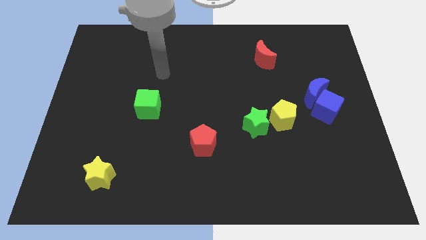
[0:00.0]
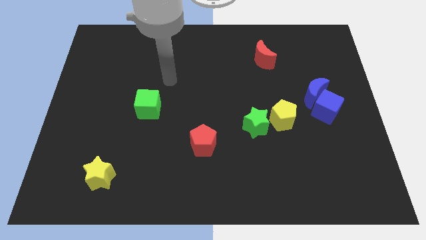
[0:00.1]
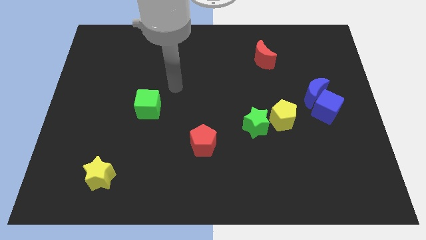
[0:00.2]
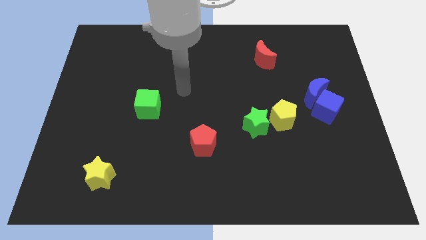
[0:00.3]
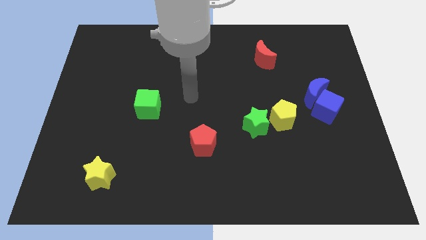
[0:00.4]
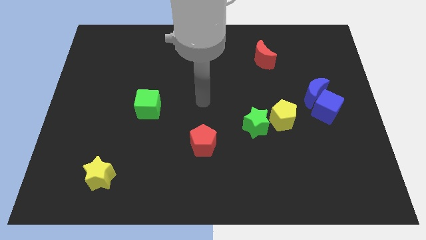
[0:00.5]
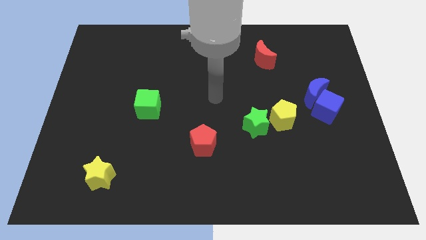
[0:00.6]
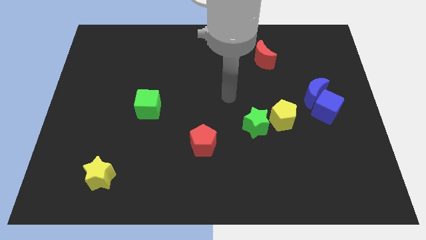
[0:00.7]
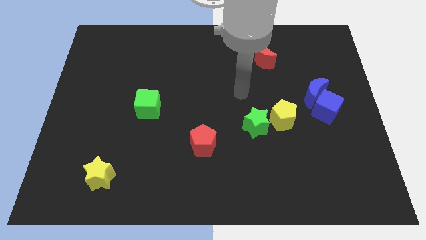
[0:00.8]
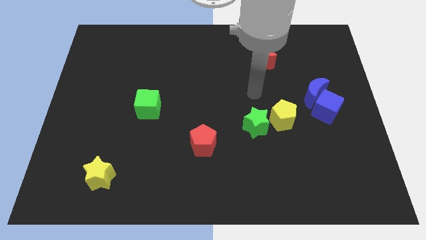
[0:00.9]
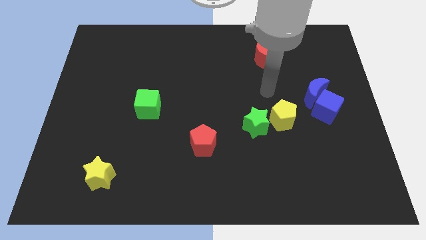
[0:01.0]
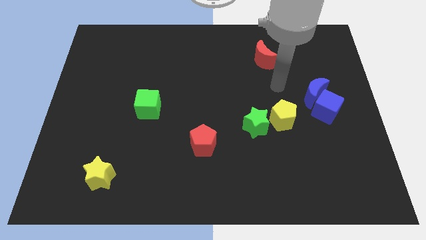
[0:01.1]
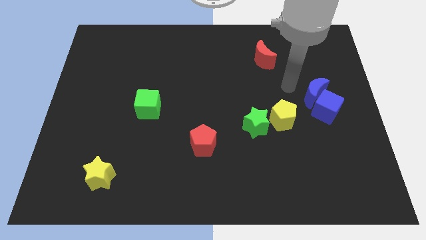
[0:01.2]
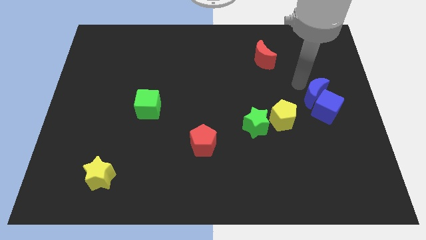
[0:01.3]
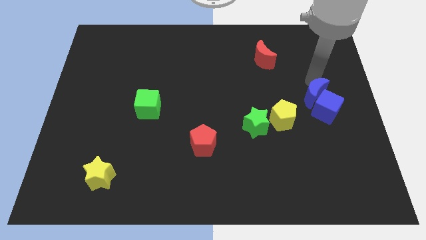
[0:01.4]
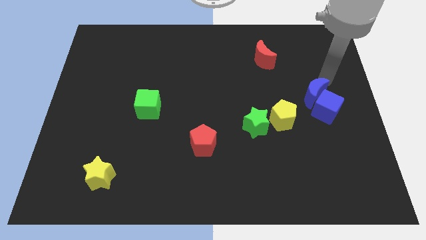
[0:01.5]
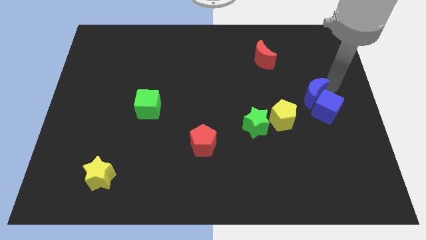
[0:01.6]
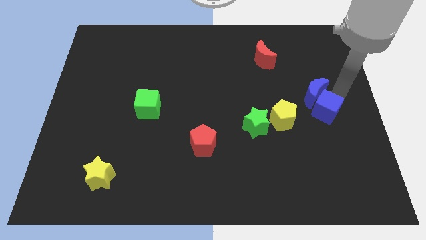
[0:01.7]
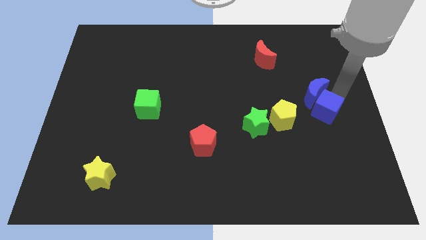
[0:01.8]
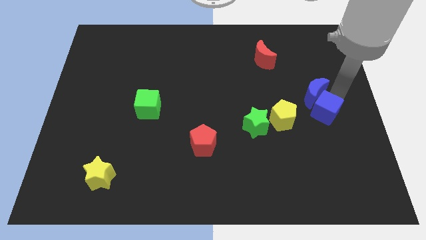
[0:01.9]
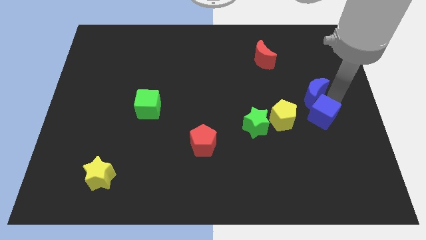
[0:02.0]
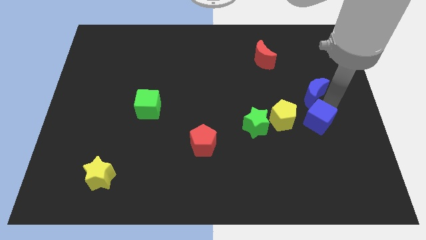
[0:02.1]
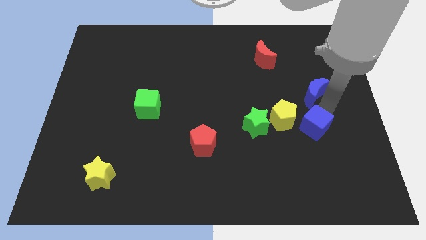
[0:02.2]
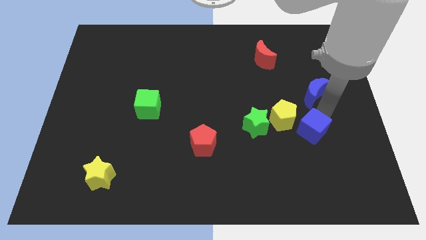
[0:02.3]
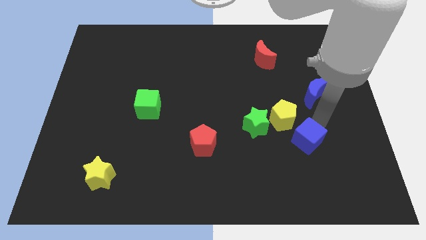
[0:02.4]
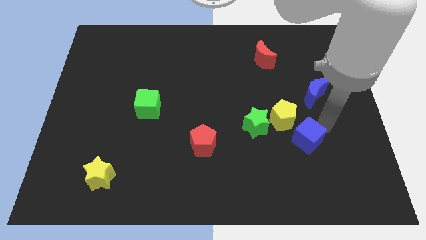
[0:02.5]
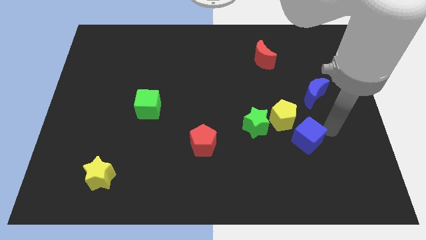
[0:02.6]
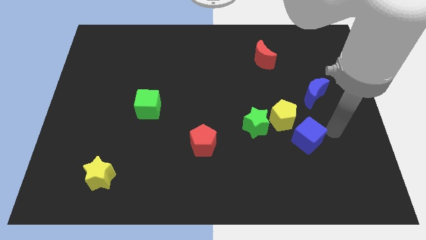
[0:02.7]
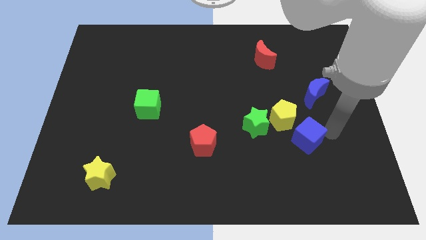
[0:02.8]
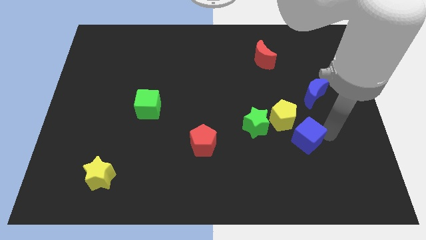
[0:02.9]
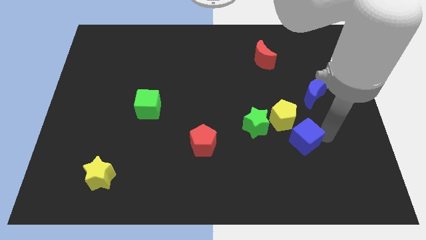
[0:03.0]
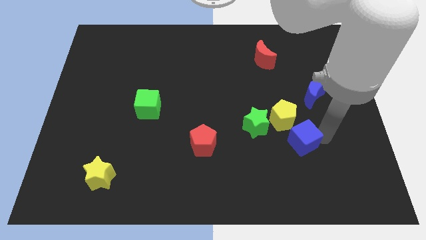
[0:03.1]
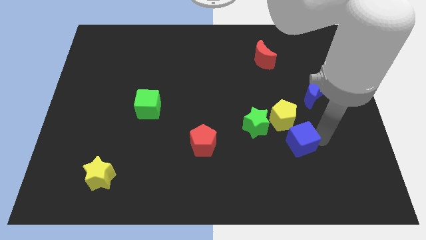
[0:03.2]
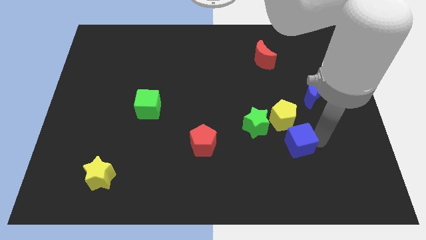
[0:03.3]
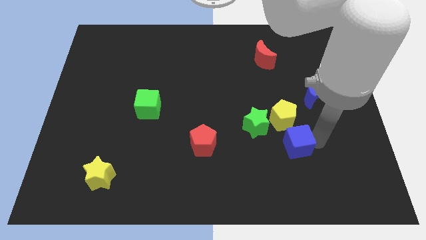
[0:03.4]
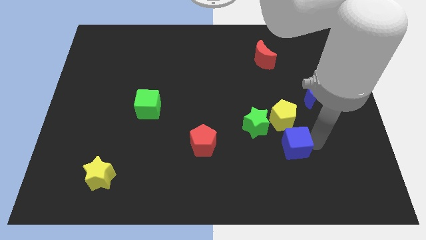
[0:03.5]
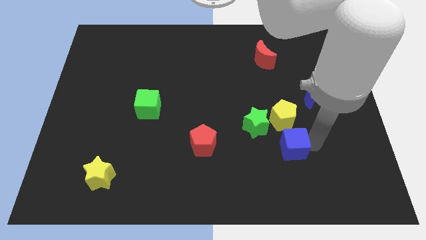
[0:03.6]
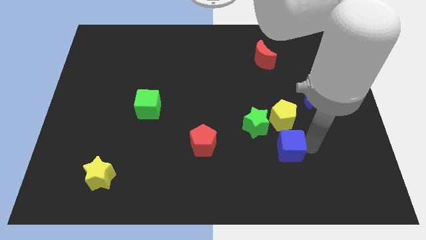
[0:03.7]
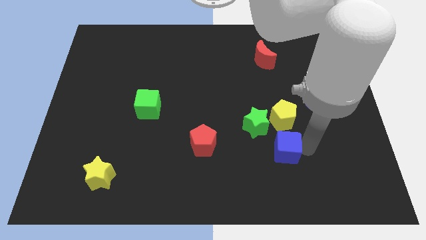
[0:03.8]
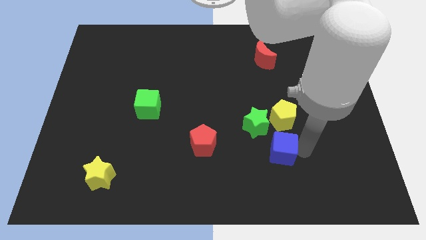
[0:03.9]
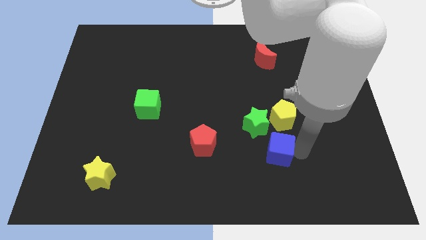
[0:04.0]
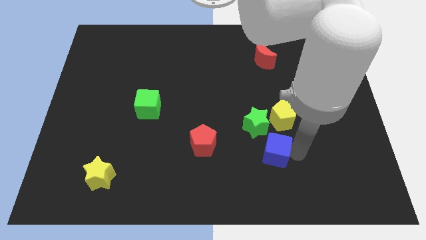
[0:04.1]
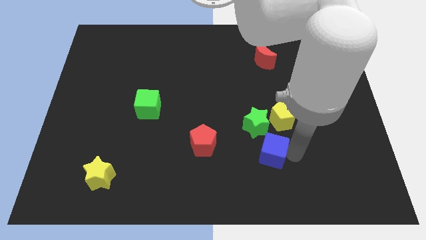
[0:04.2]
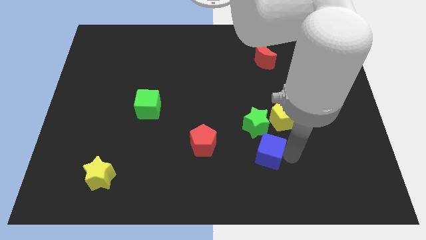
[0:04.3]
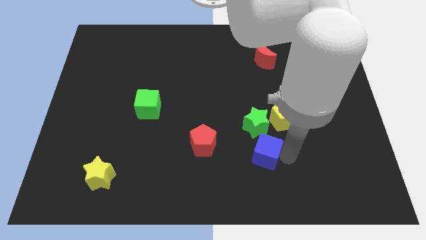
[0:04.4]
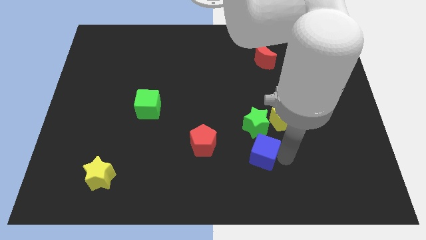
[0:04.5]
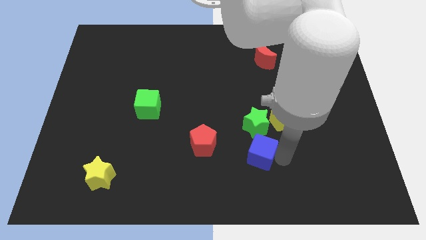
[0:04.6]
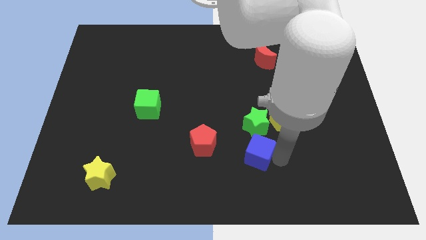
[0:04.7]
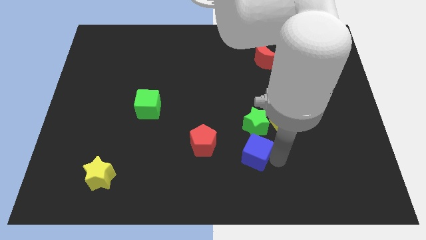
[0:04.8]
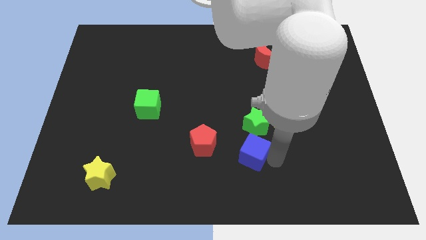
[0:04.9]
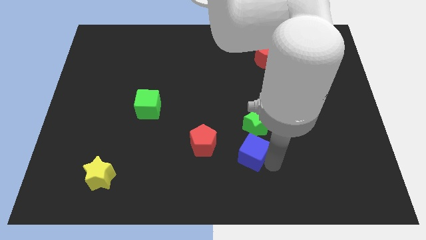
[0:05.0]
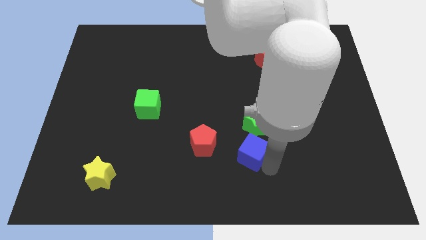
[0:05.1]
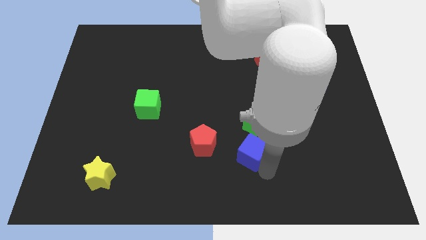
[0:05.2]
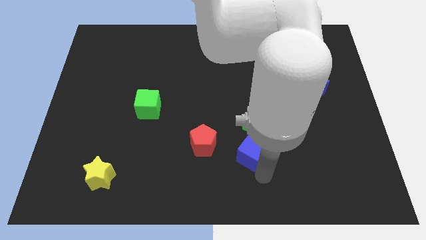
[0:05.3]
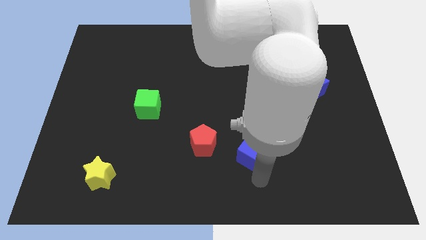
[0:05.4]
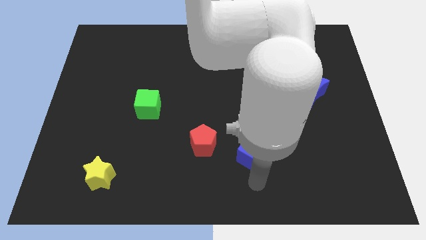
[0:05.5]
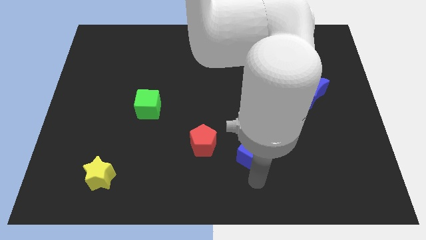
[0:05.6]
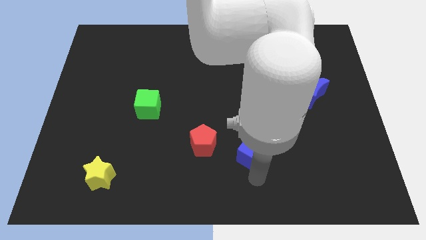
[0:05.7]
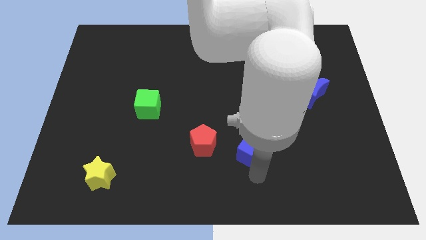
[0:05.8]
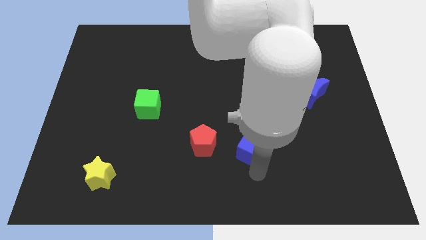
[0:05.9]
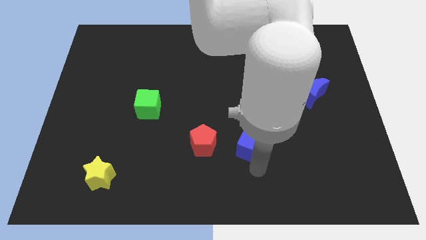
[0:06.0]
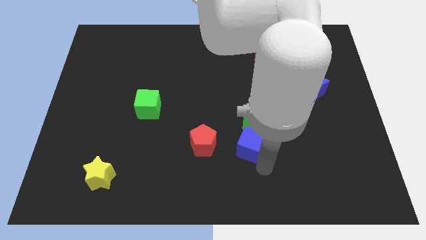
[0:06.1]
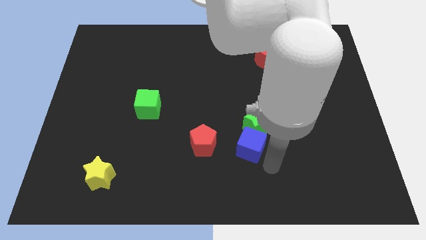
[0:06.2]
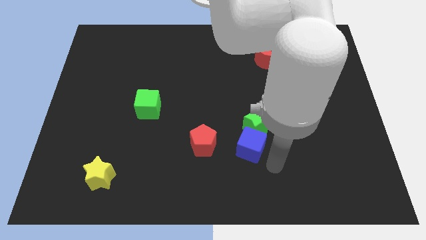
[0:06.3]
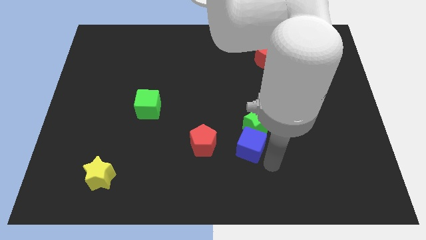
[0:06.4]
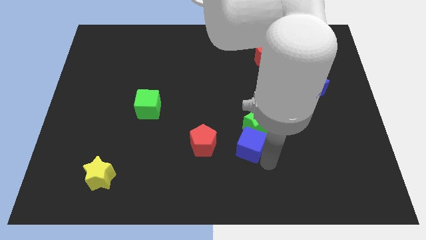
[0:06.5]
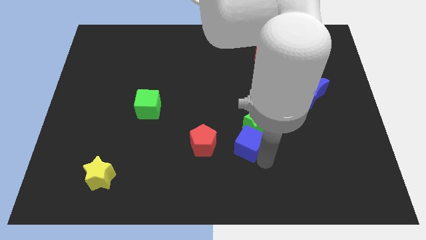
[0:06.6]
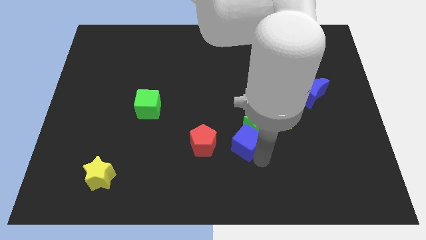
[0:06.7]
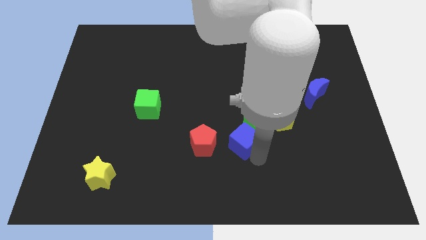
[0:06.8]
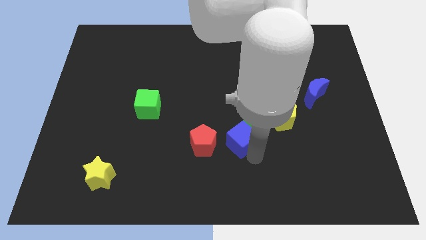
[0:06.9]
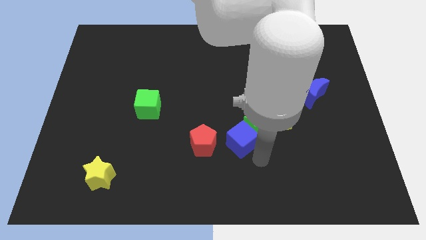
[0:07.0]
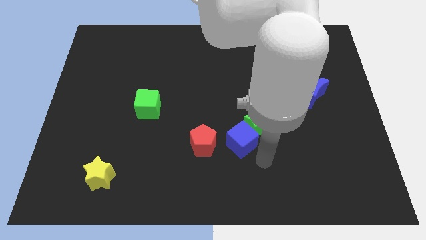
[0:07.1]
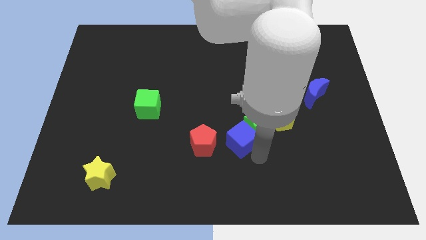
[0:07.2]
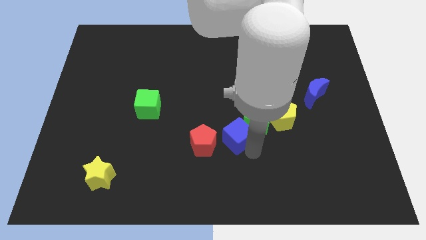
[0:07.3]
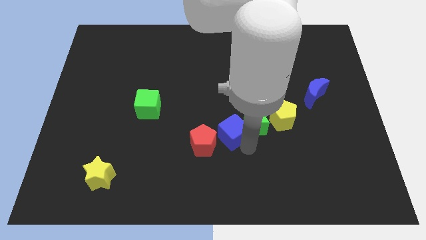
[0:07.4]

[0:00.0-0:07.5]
move the blue cube to the left

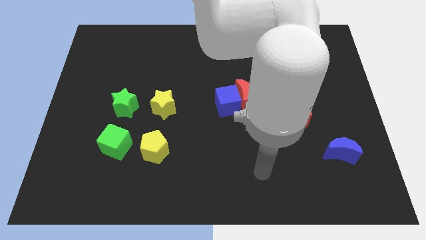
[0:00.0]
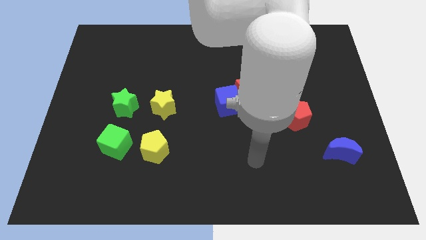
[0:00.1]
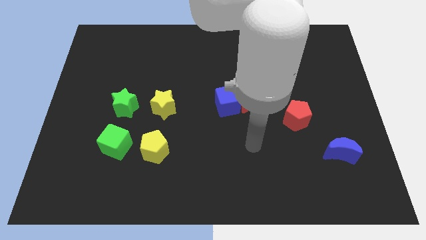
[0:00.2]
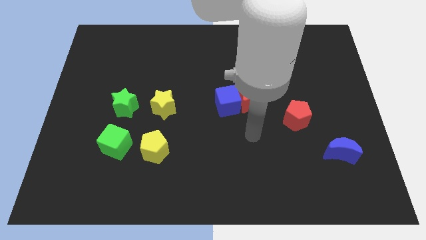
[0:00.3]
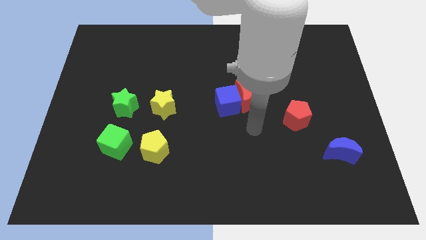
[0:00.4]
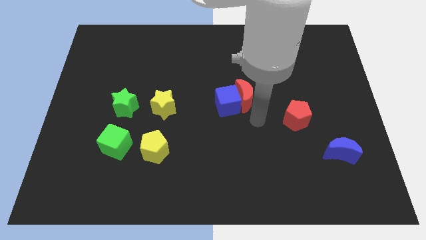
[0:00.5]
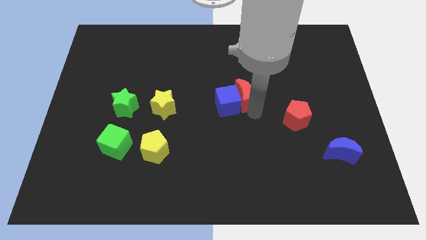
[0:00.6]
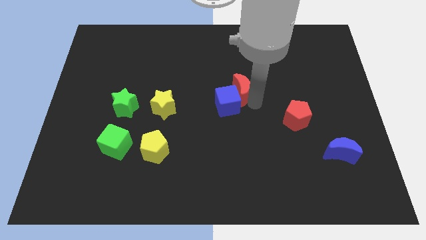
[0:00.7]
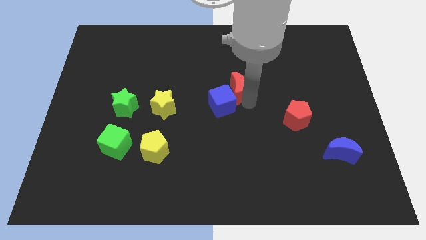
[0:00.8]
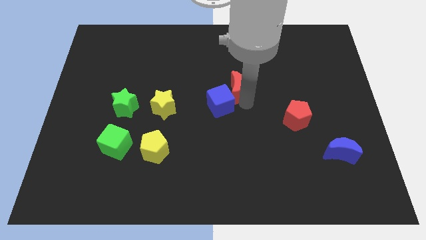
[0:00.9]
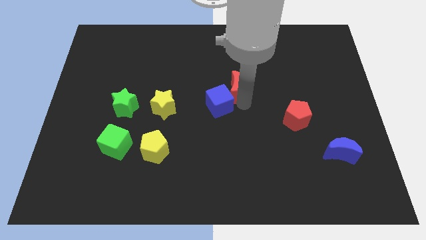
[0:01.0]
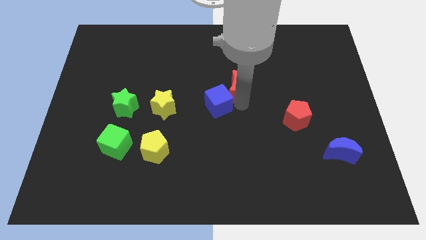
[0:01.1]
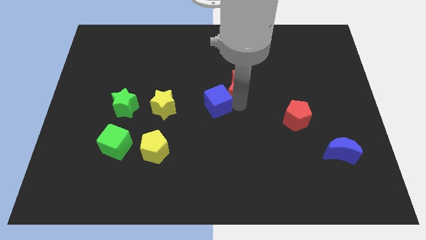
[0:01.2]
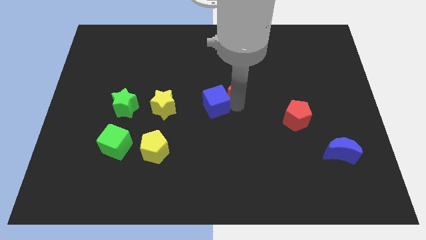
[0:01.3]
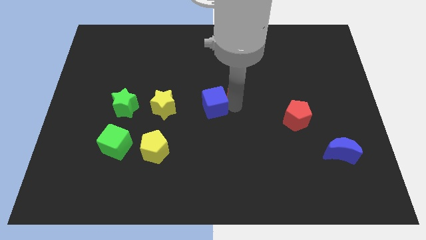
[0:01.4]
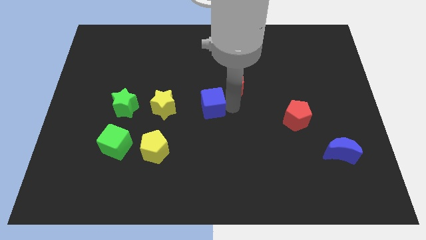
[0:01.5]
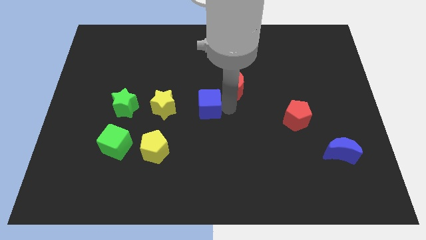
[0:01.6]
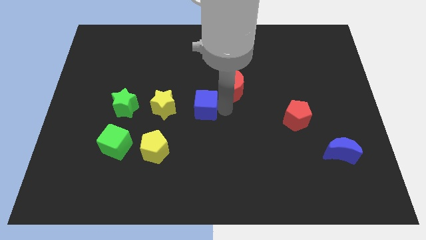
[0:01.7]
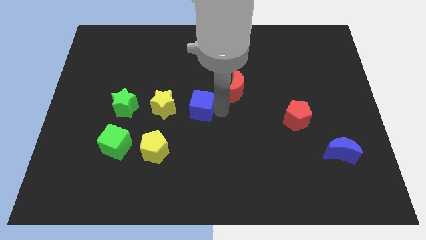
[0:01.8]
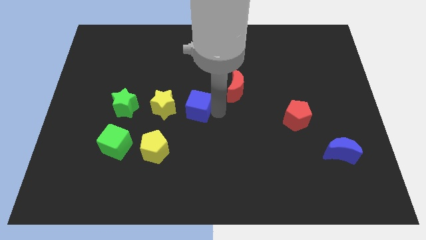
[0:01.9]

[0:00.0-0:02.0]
slightly slide the blue cube to the left
